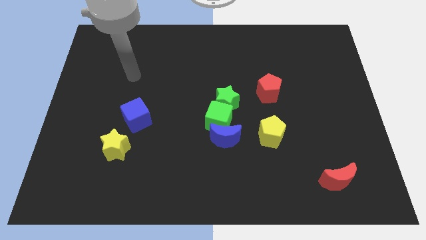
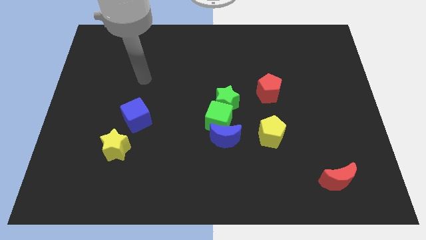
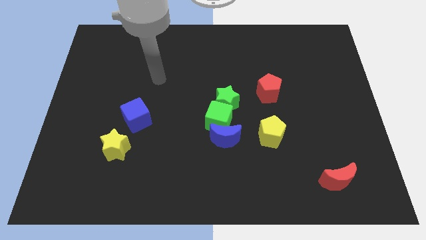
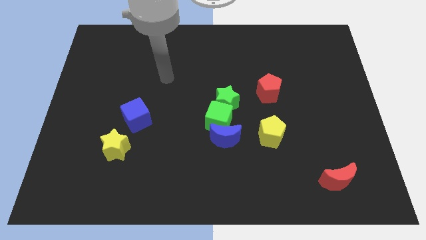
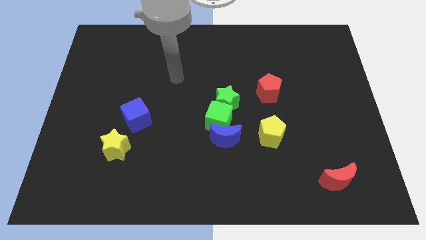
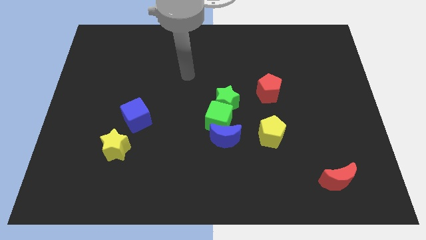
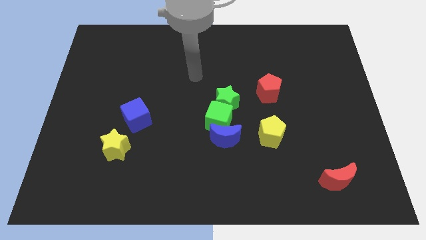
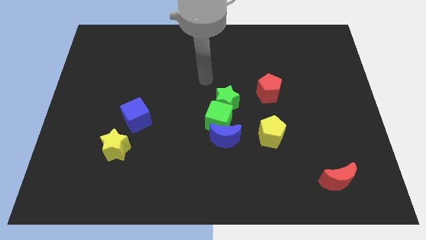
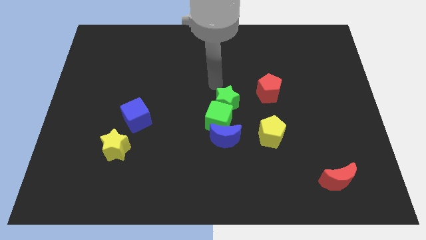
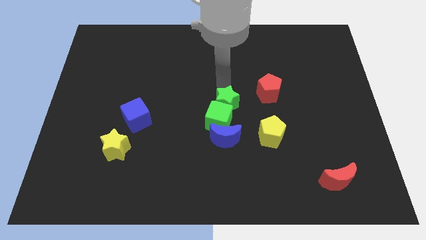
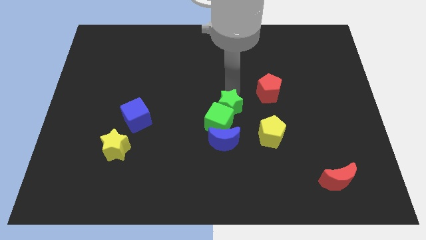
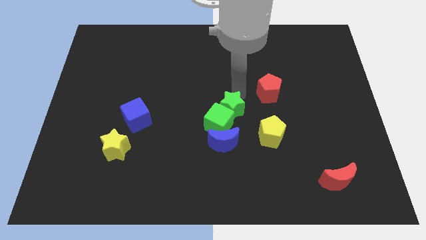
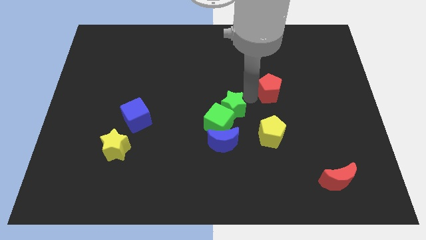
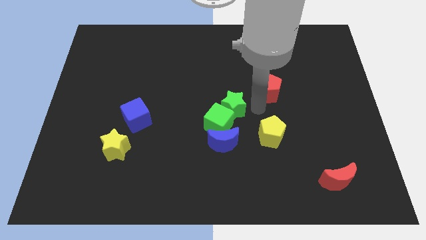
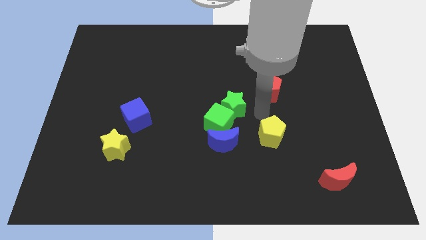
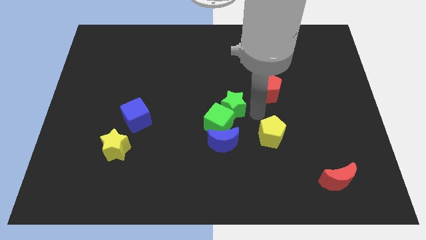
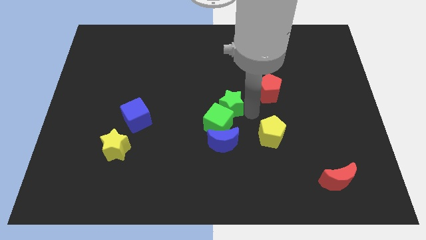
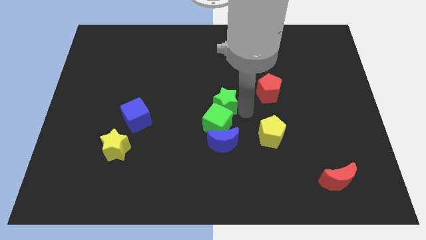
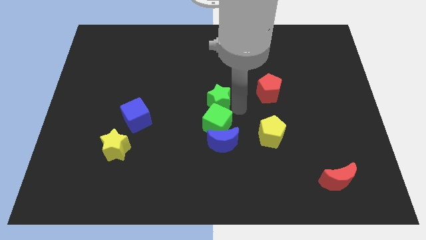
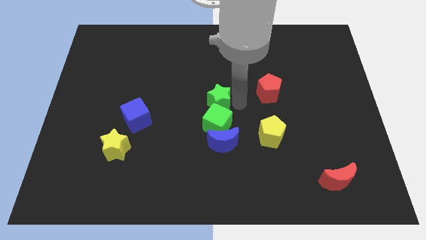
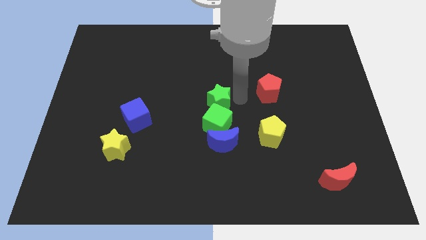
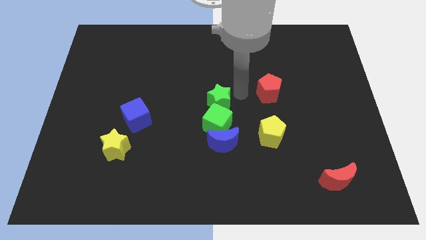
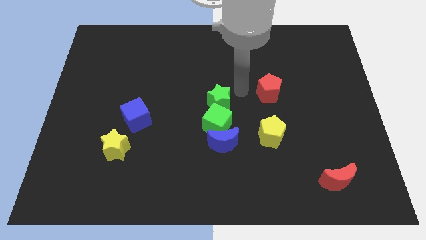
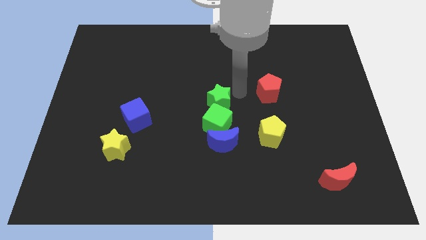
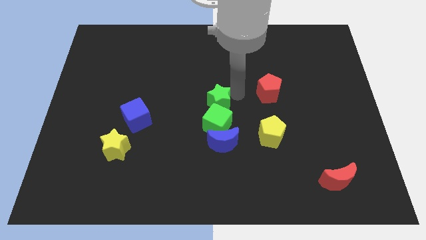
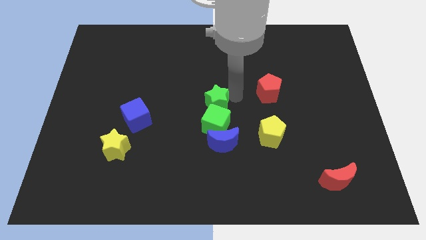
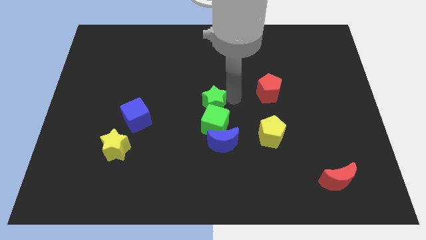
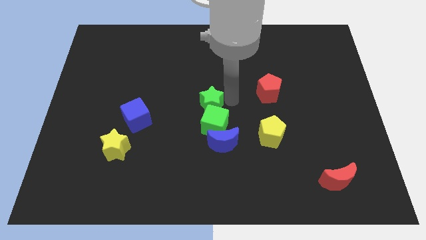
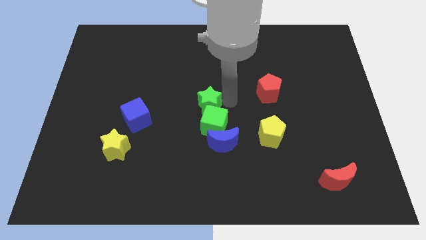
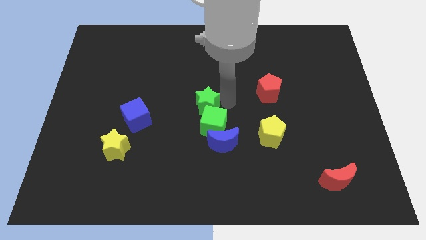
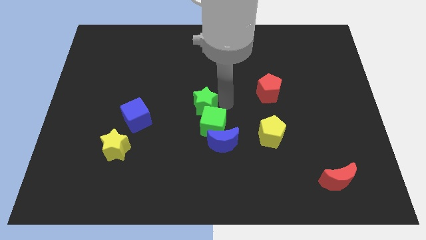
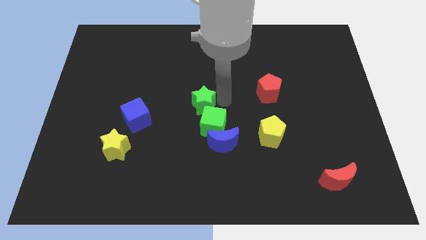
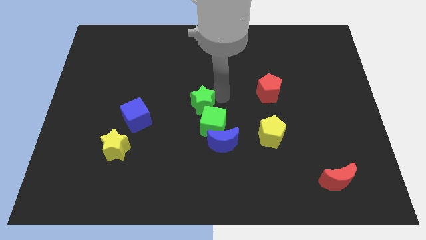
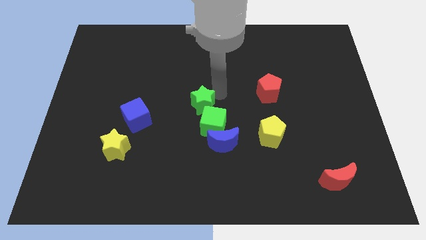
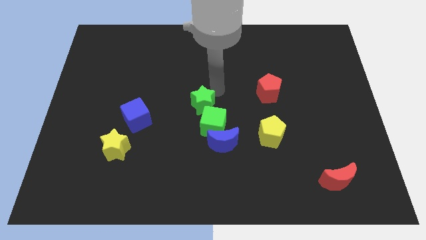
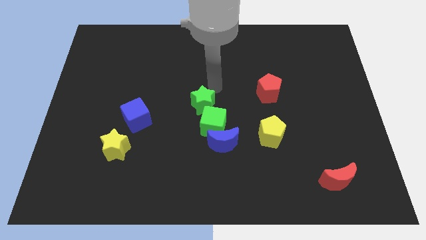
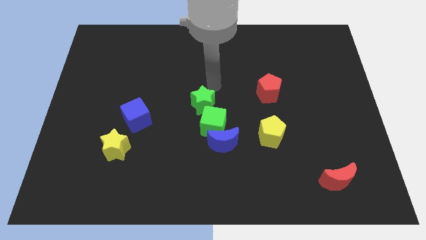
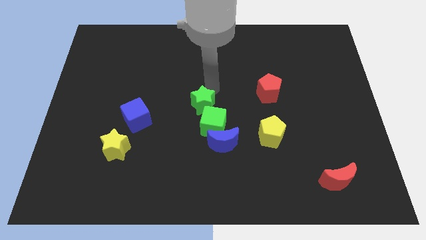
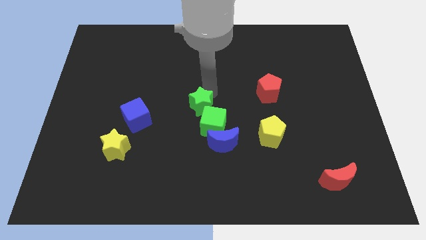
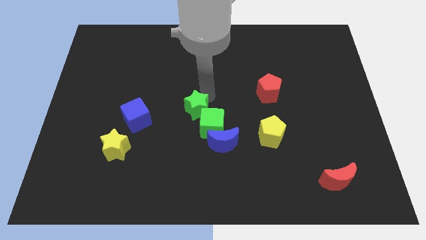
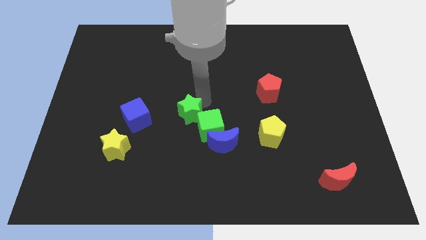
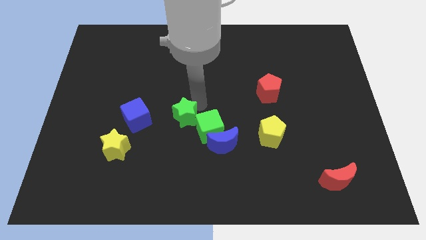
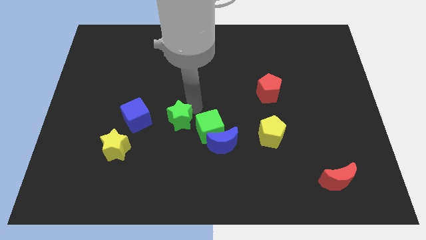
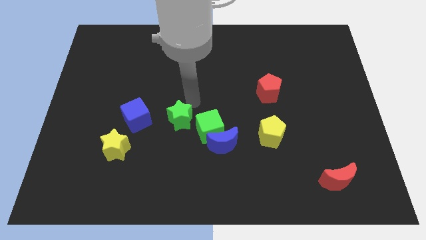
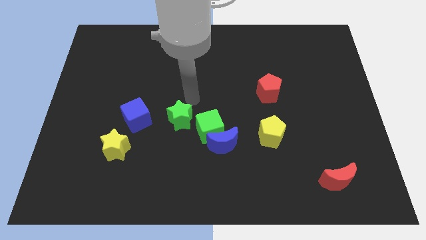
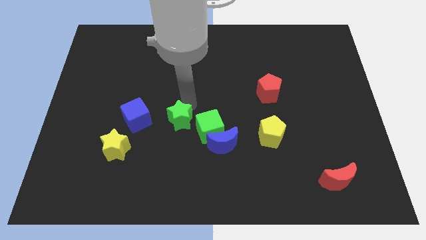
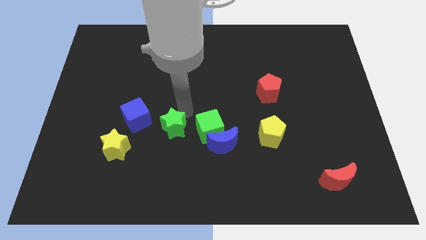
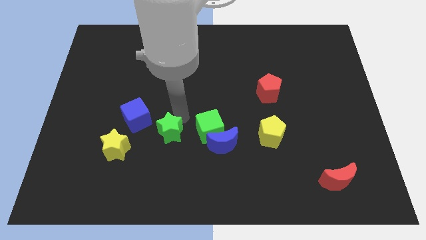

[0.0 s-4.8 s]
put the green star to the right side of the yellow star

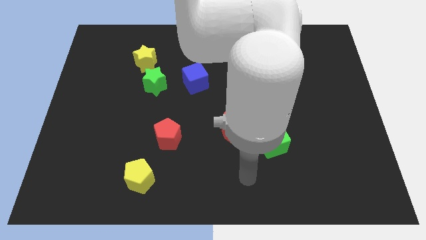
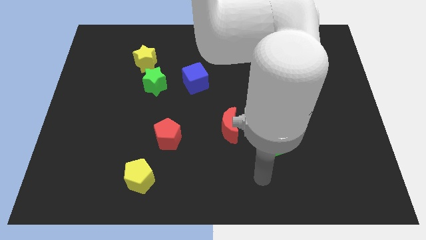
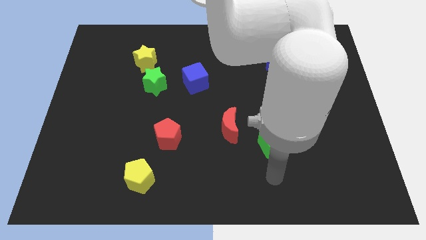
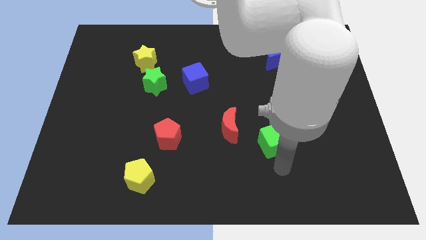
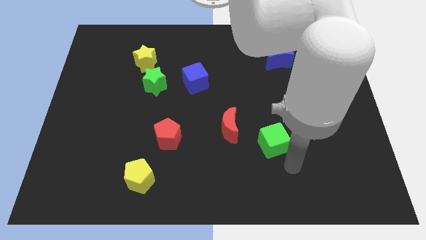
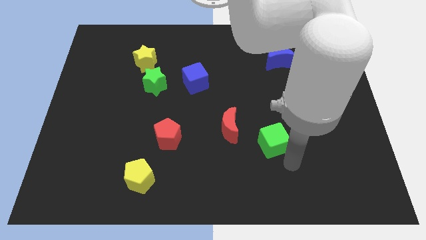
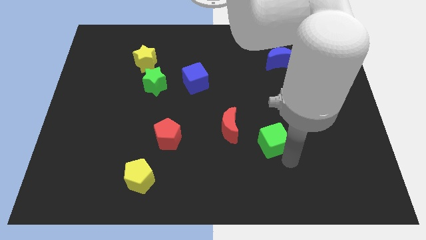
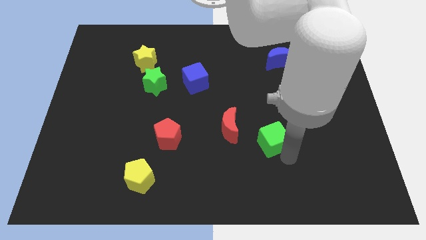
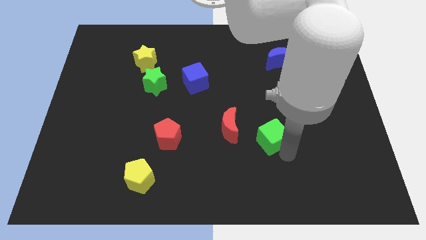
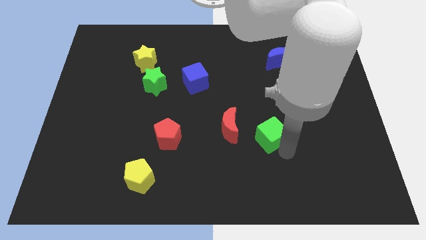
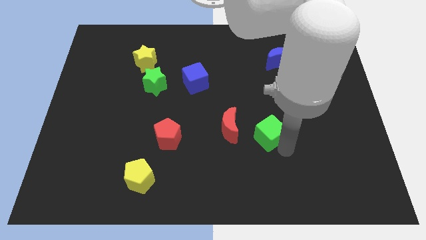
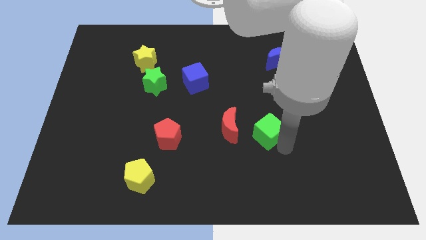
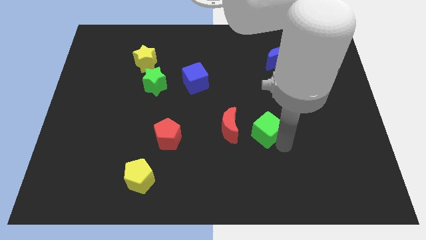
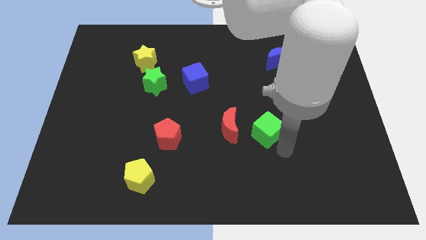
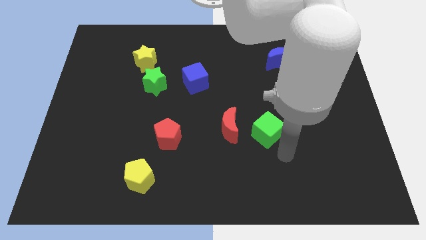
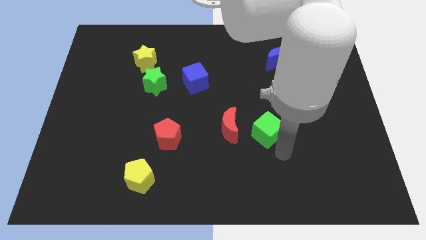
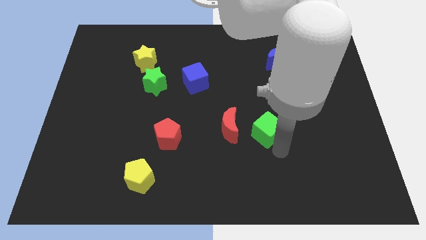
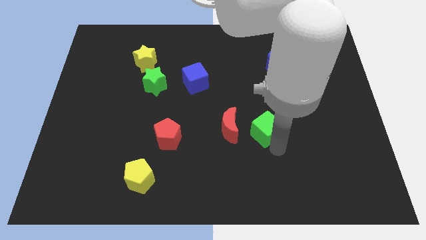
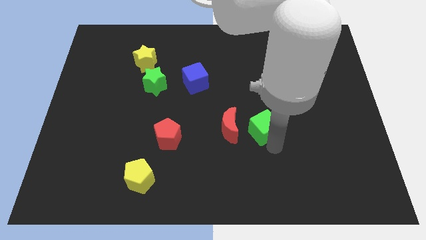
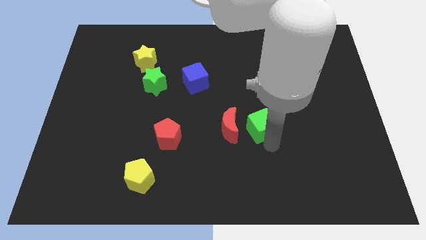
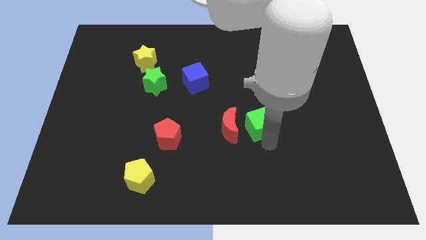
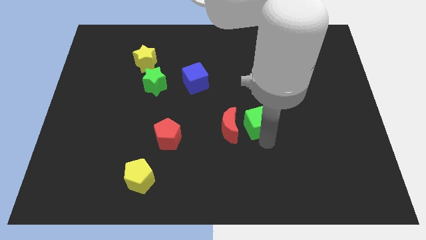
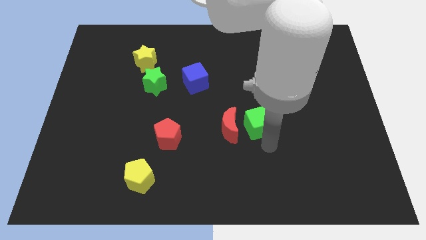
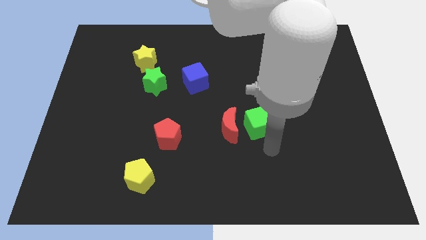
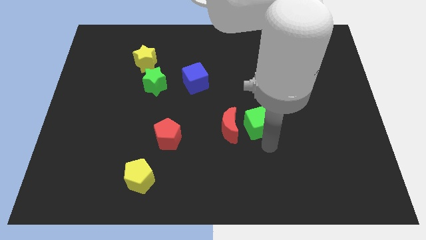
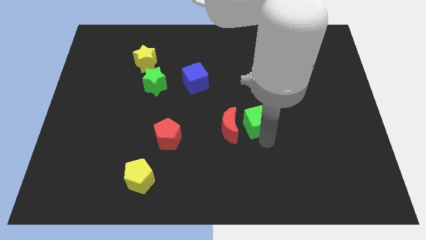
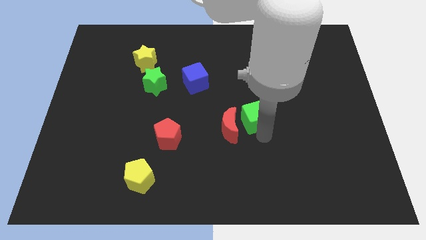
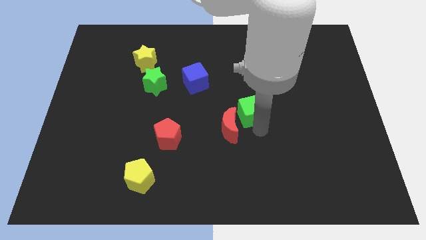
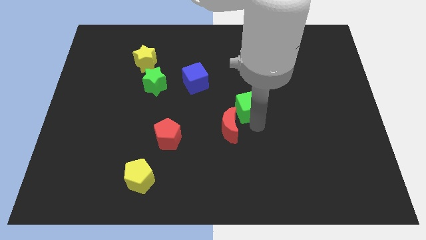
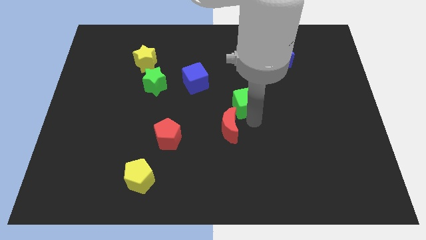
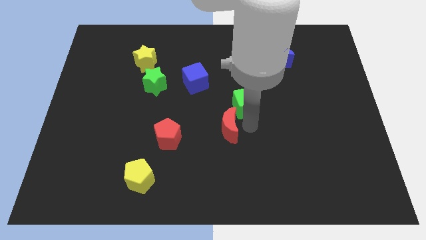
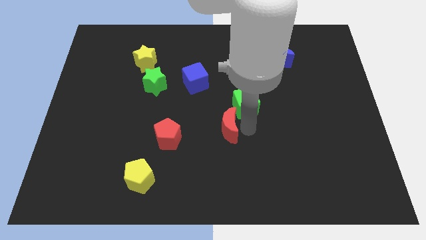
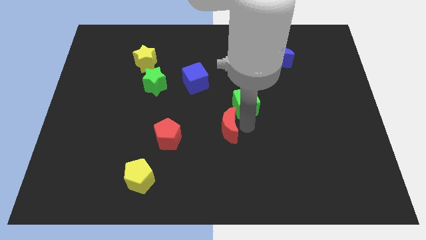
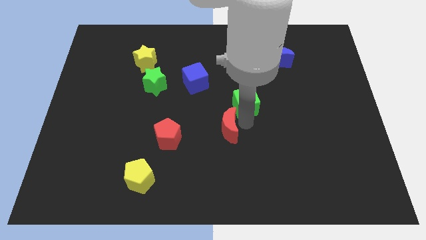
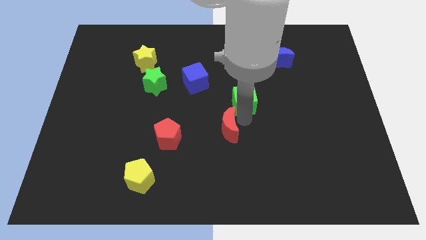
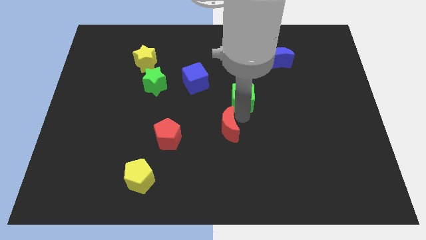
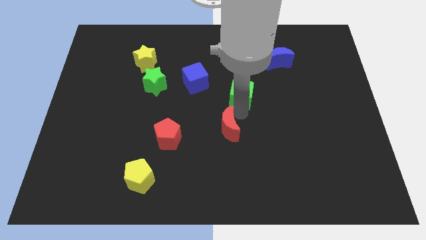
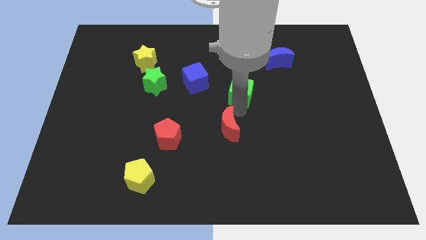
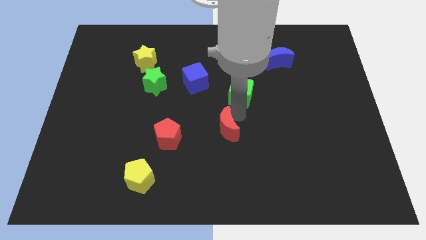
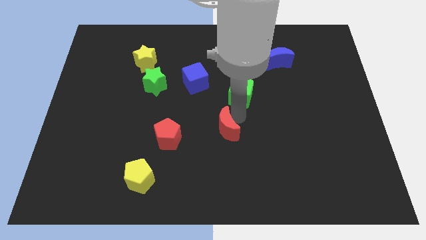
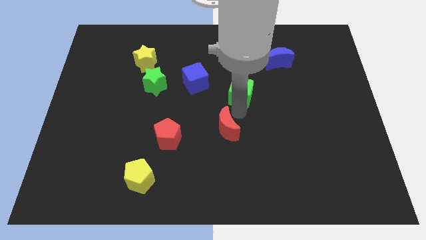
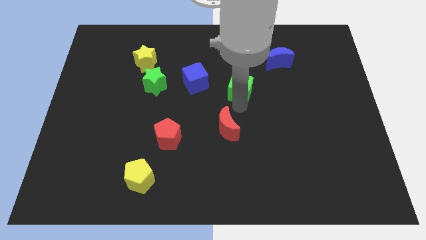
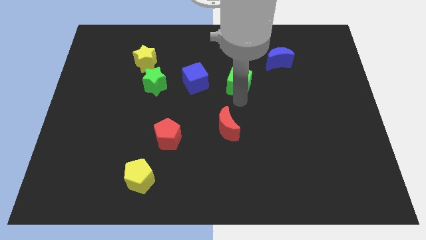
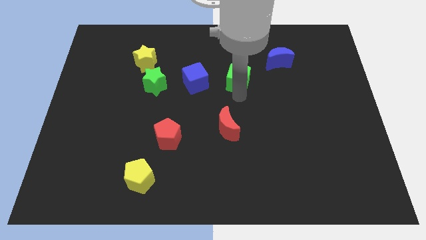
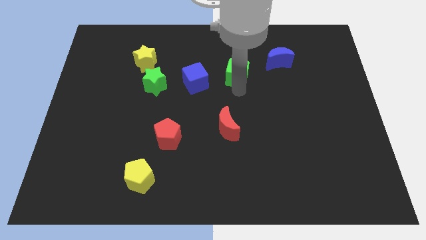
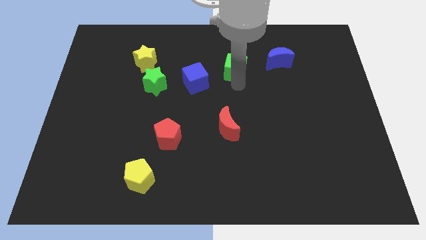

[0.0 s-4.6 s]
put the green cube to the left of the blue moon
